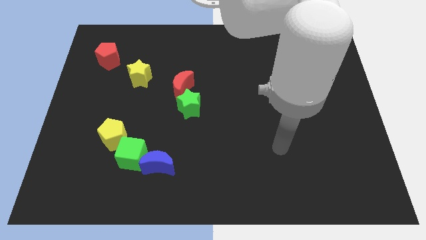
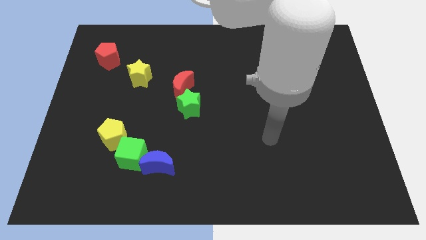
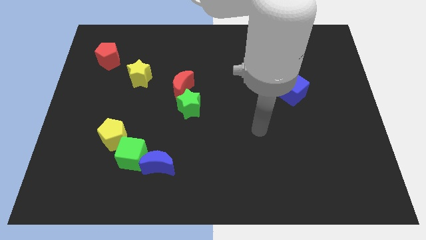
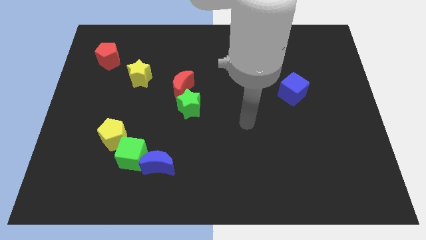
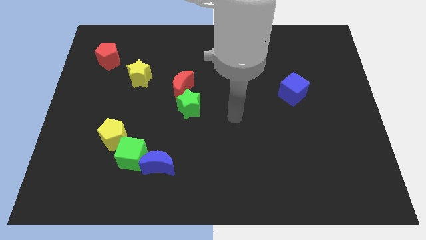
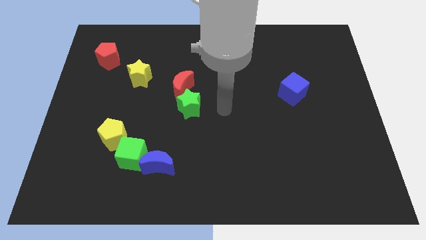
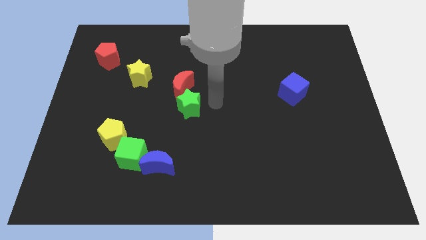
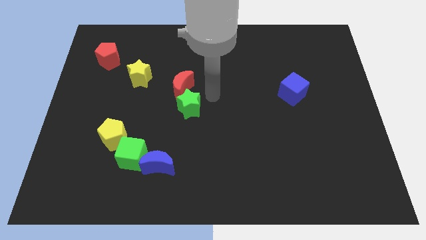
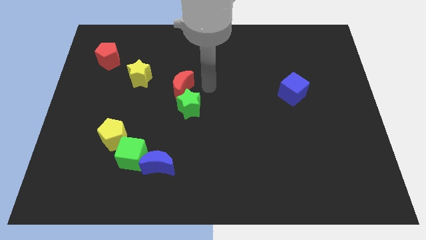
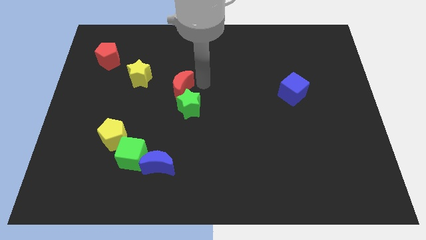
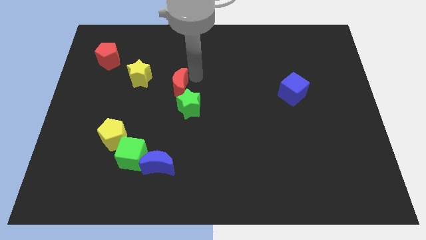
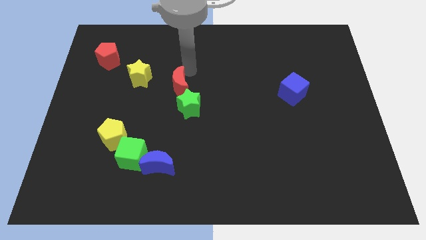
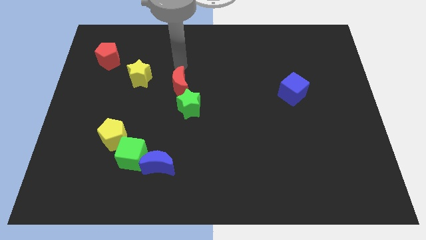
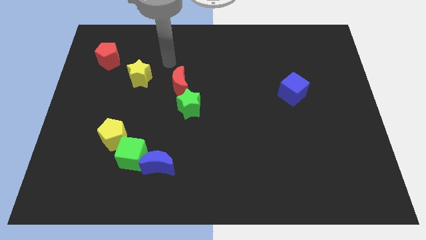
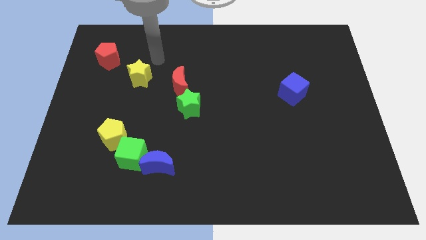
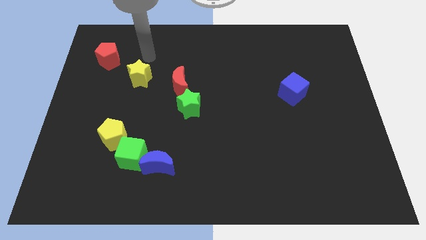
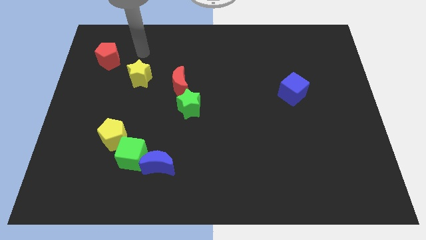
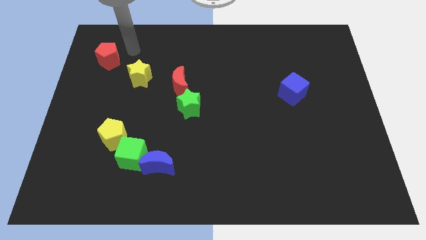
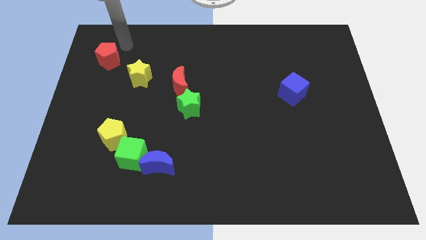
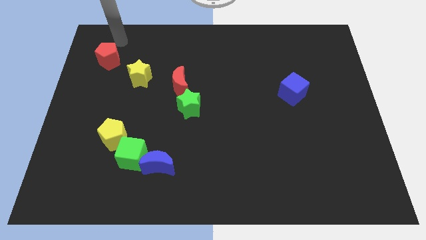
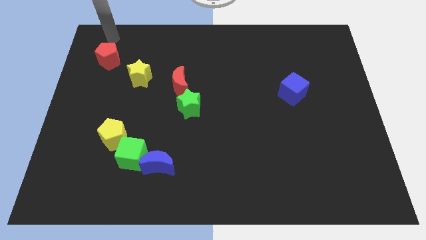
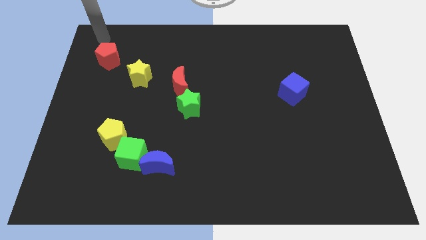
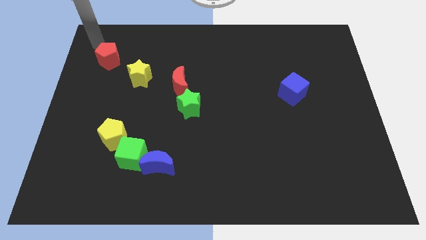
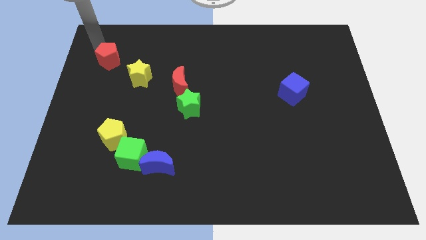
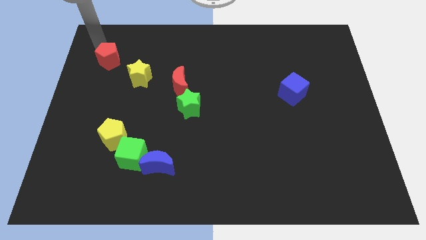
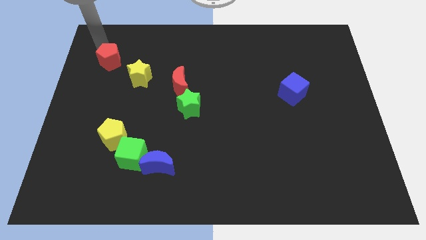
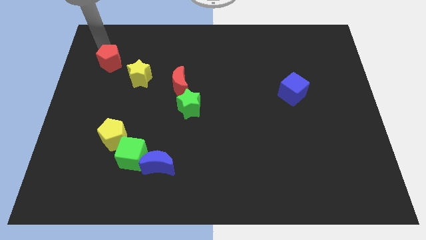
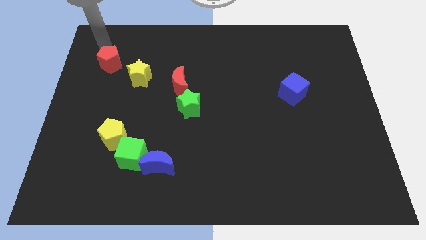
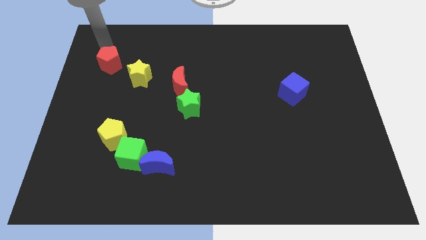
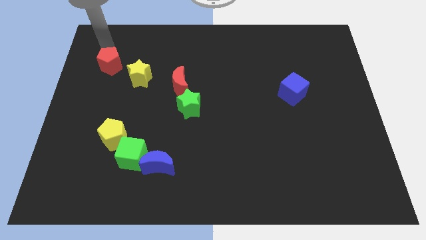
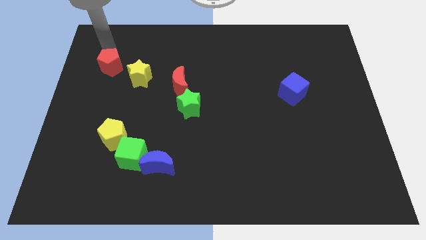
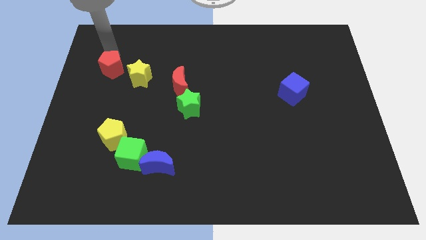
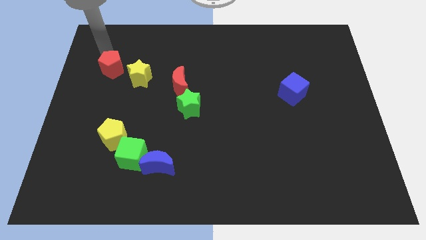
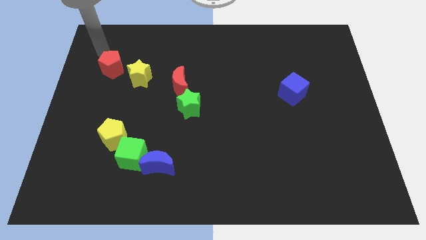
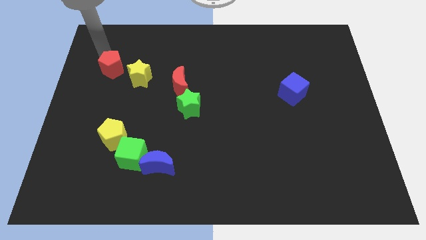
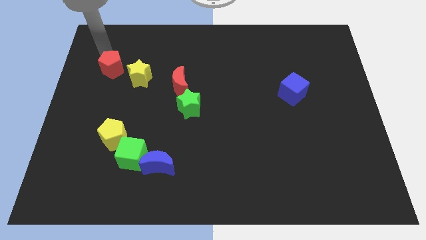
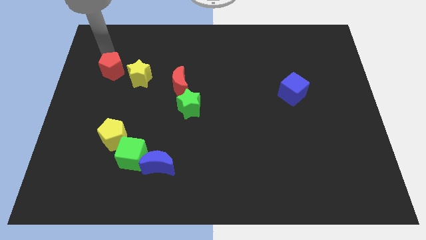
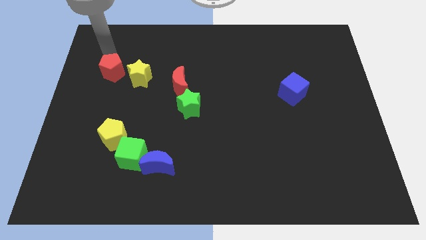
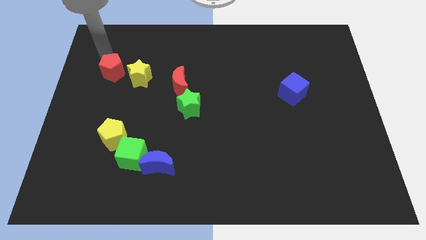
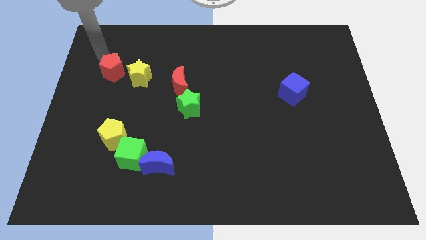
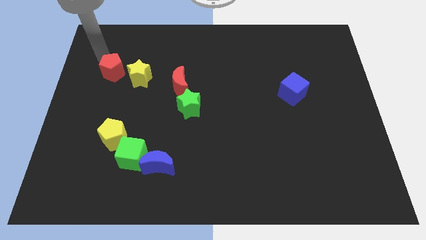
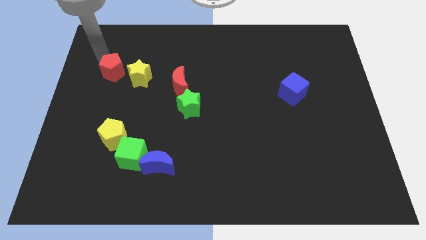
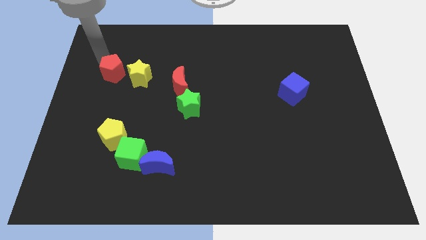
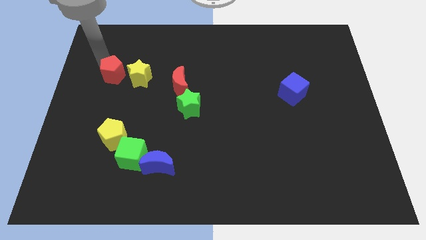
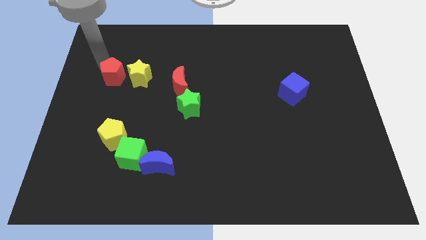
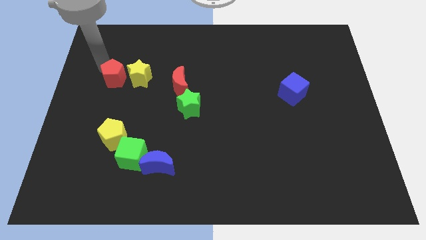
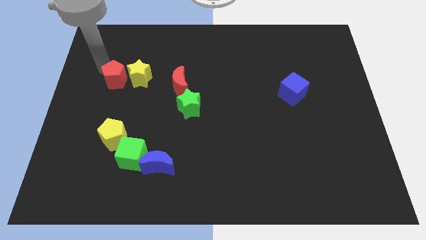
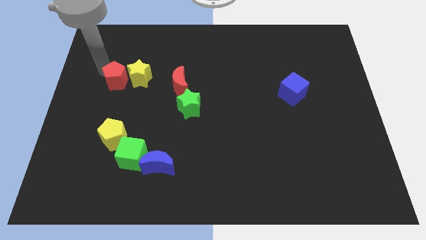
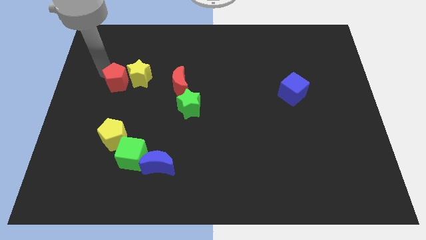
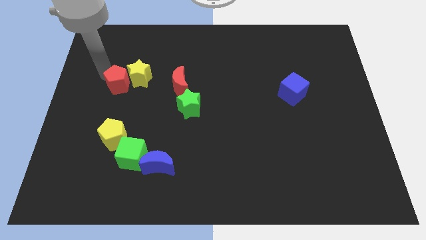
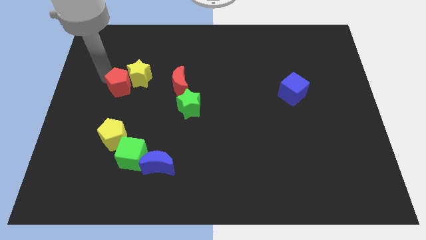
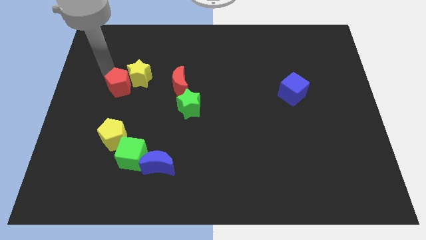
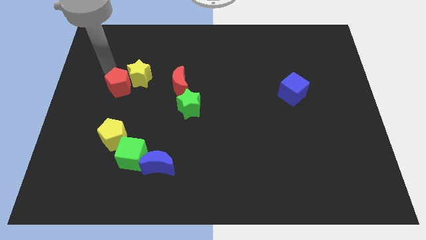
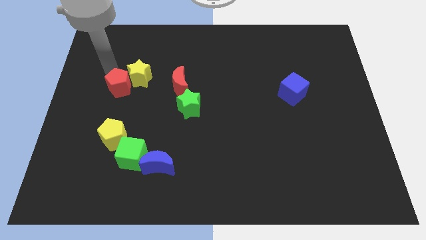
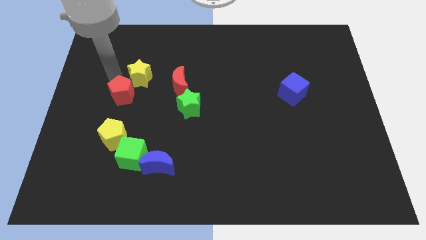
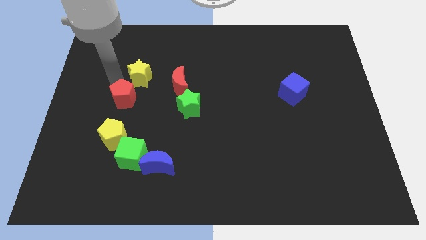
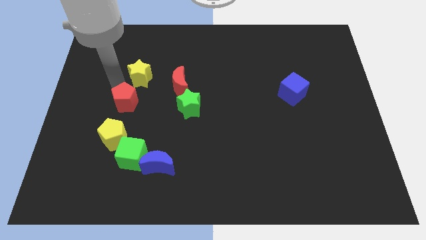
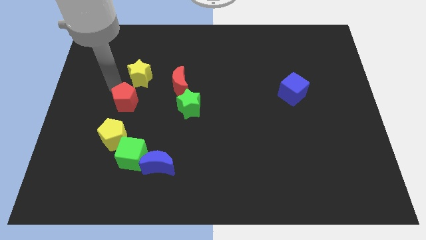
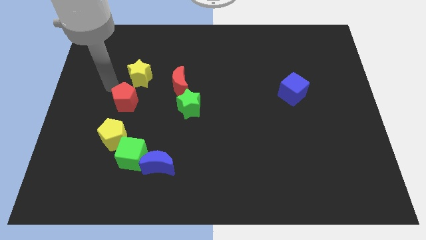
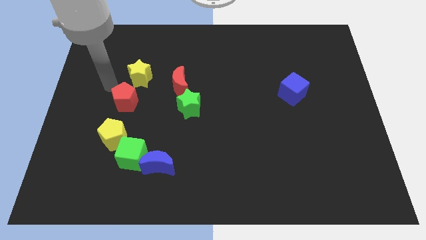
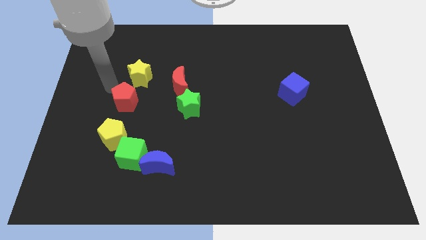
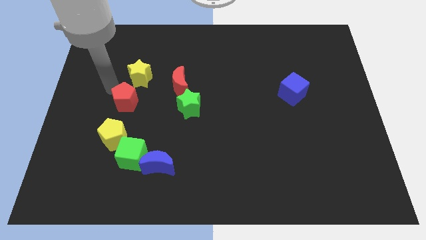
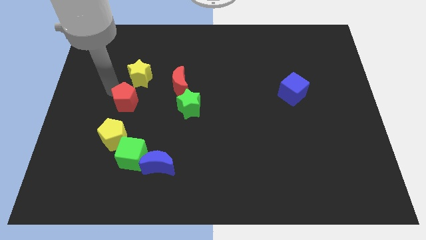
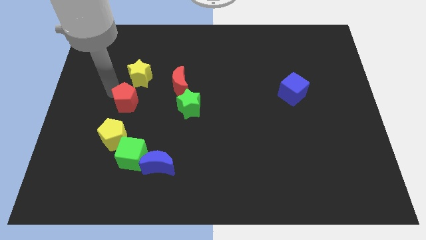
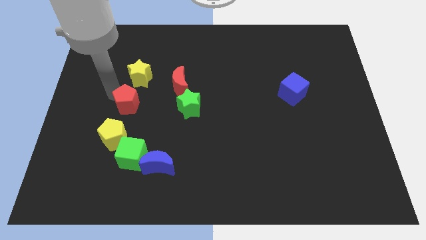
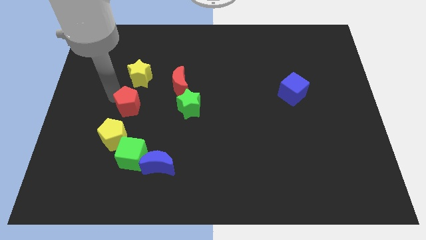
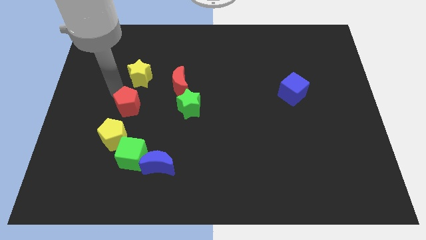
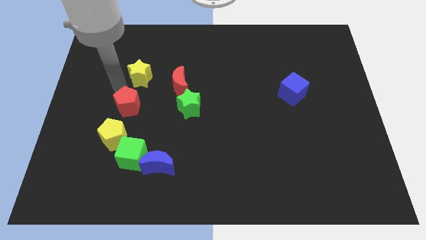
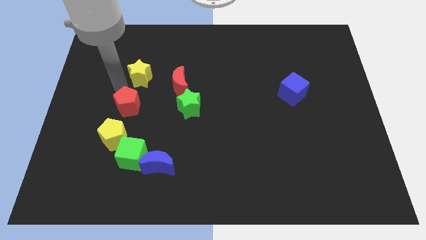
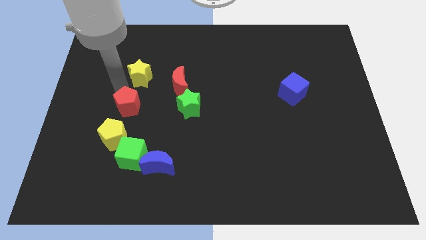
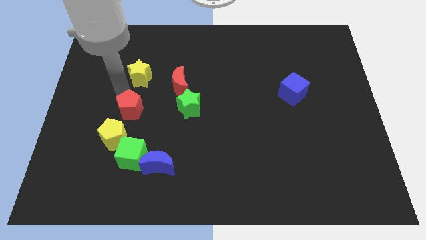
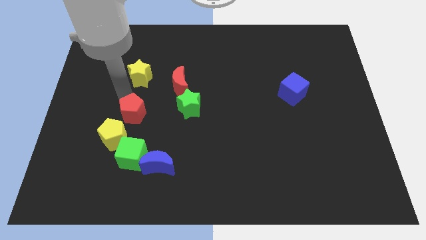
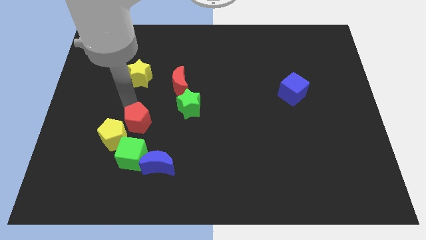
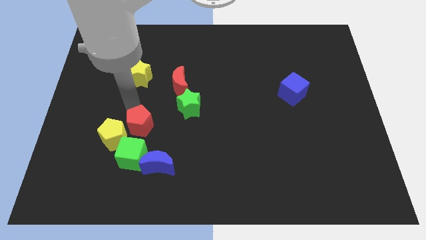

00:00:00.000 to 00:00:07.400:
move the red pentagon diagonally up and to the left of the blue moon
